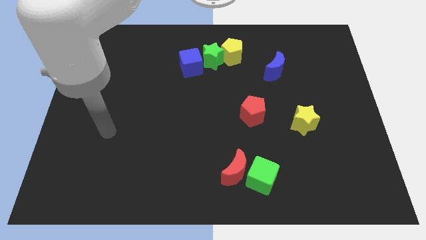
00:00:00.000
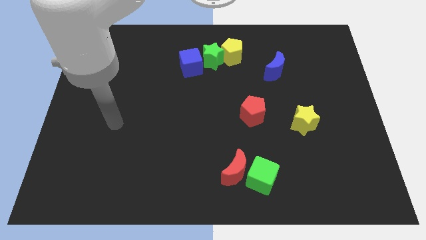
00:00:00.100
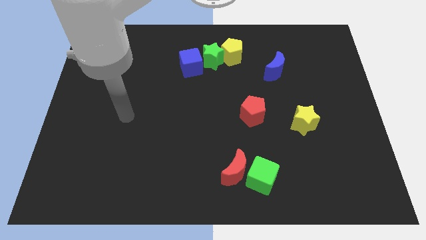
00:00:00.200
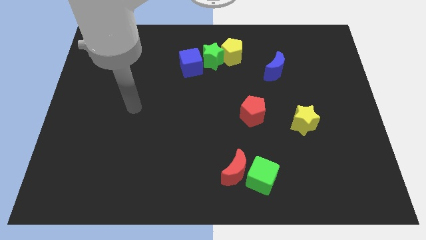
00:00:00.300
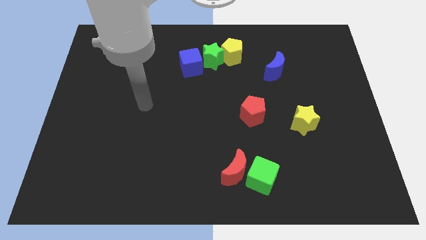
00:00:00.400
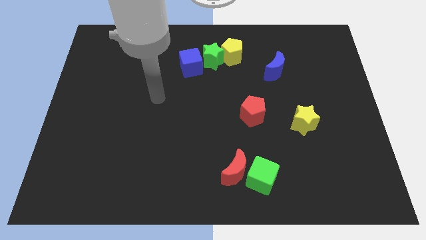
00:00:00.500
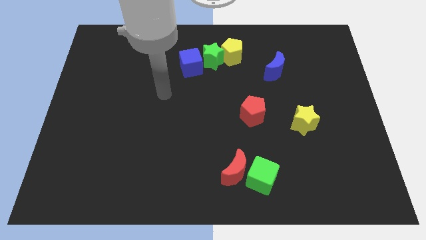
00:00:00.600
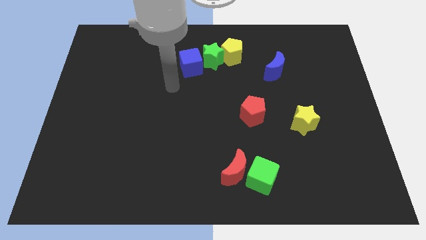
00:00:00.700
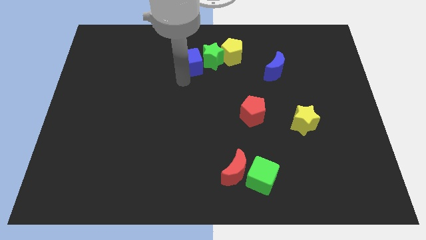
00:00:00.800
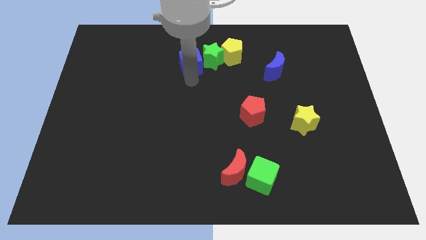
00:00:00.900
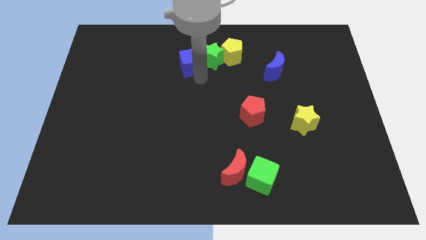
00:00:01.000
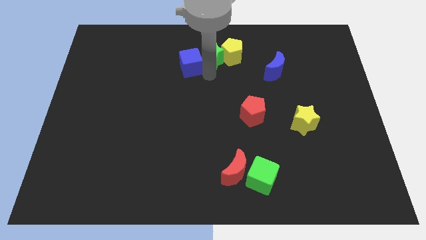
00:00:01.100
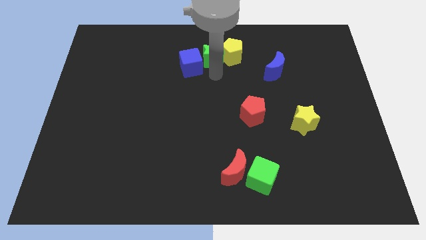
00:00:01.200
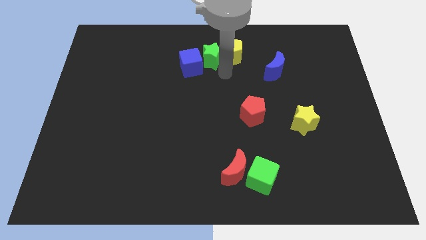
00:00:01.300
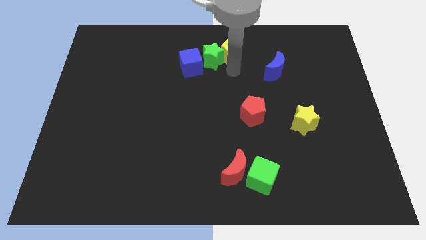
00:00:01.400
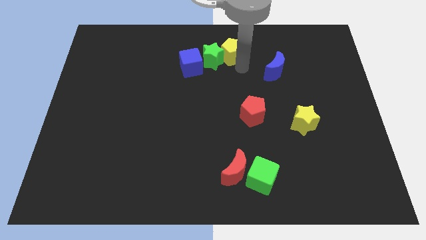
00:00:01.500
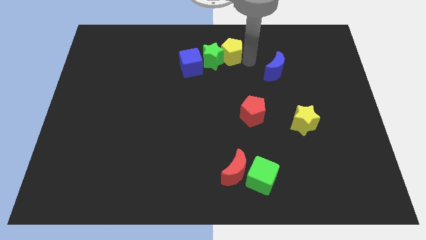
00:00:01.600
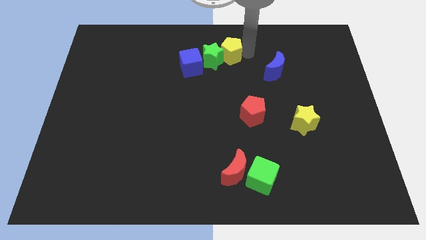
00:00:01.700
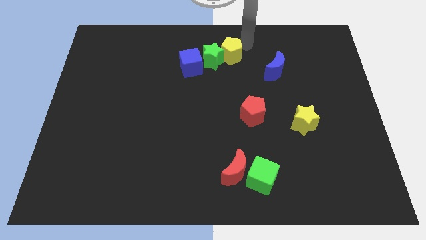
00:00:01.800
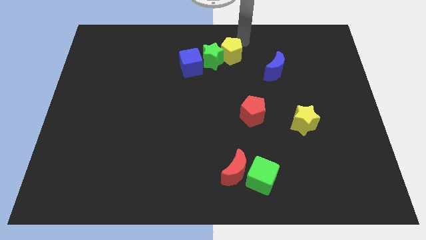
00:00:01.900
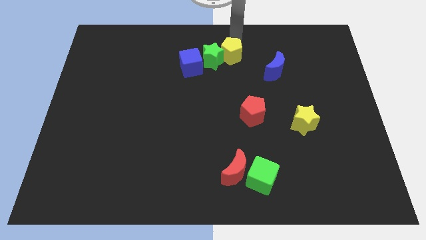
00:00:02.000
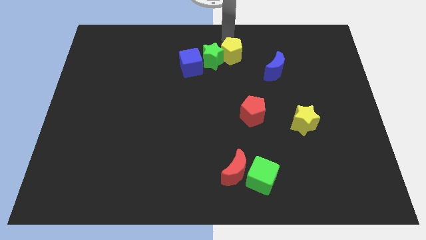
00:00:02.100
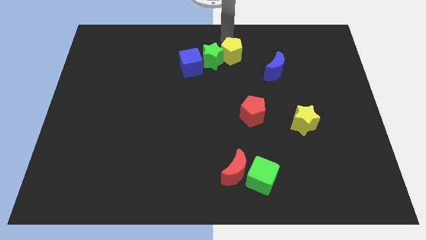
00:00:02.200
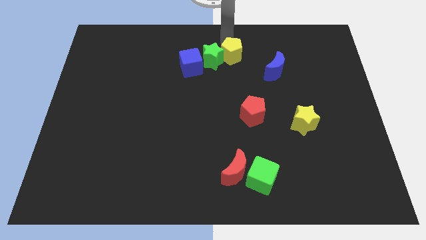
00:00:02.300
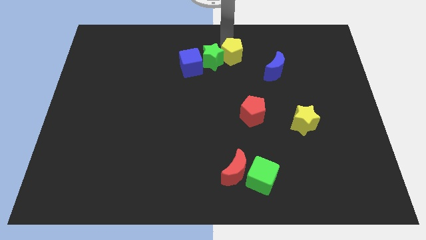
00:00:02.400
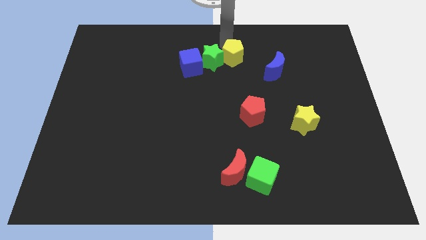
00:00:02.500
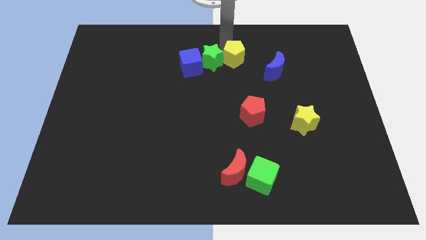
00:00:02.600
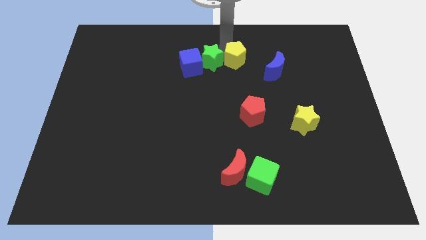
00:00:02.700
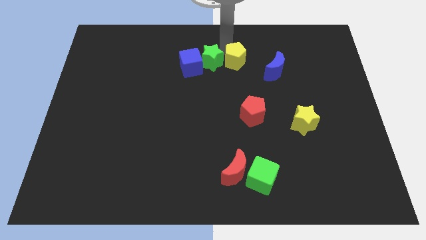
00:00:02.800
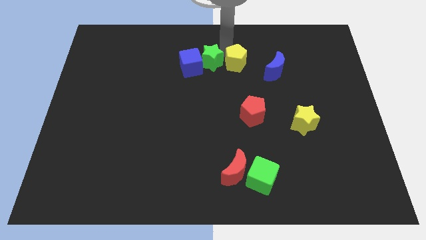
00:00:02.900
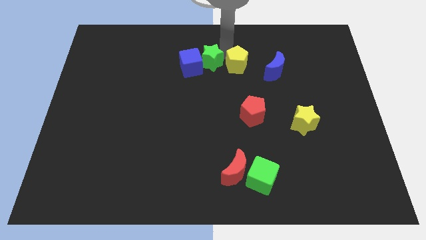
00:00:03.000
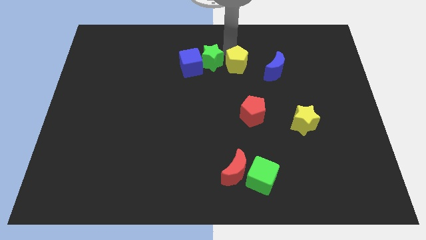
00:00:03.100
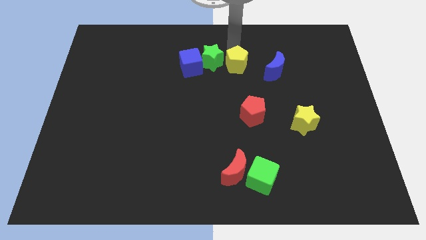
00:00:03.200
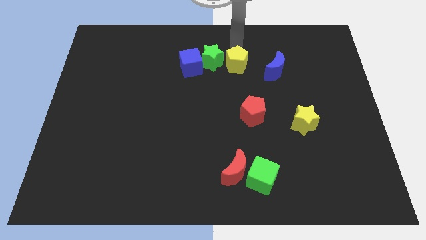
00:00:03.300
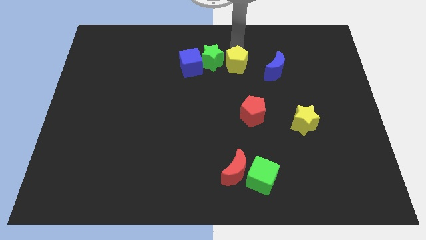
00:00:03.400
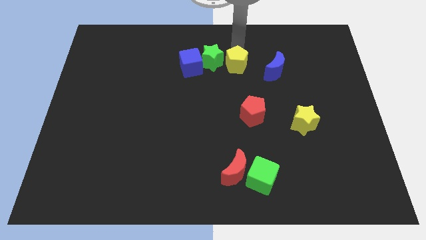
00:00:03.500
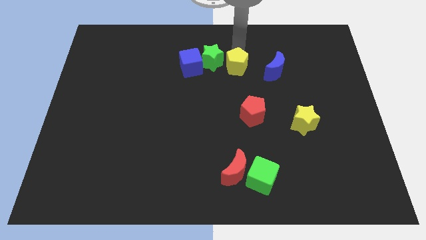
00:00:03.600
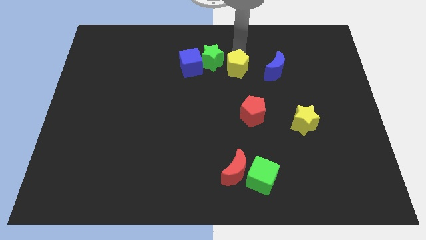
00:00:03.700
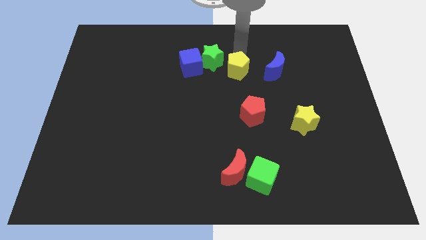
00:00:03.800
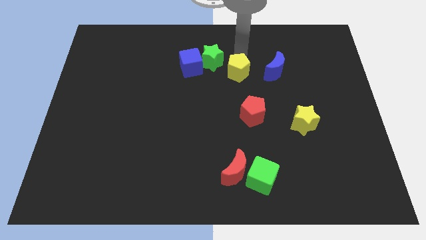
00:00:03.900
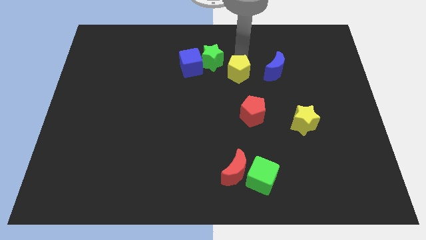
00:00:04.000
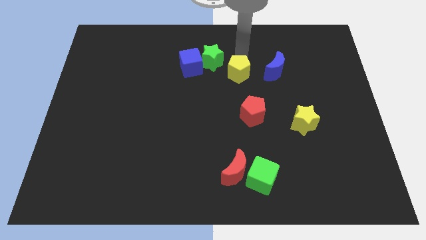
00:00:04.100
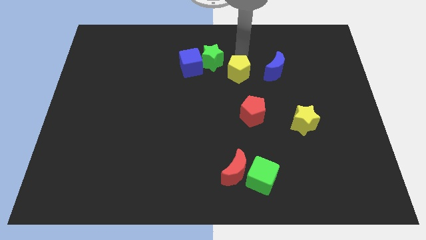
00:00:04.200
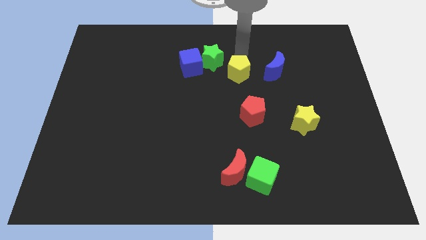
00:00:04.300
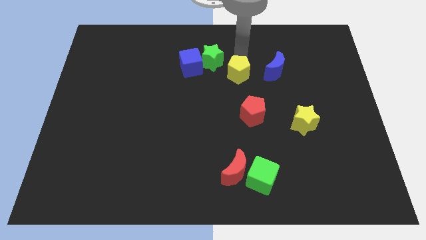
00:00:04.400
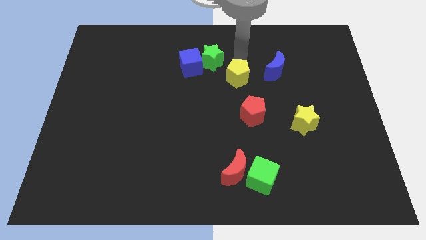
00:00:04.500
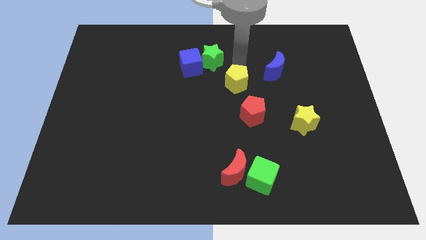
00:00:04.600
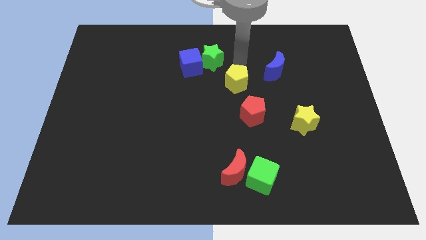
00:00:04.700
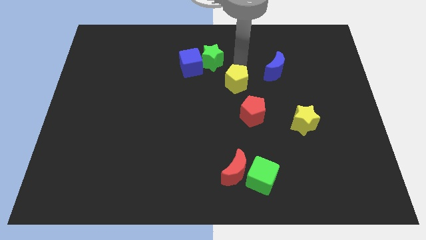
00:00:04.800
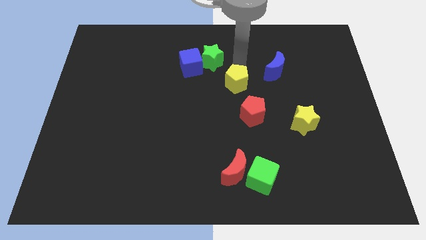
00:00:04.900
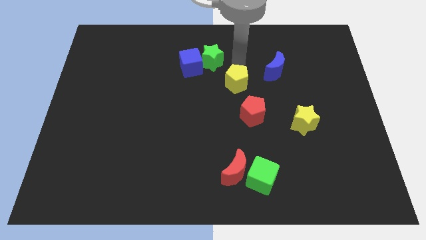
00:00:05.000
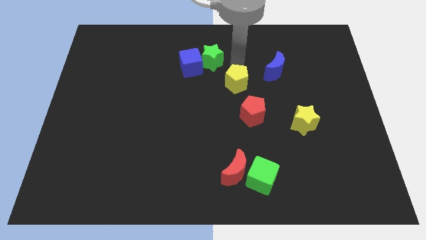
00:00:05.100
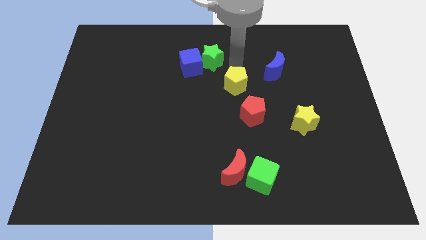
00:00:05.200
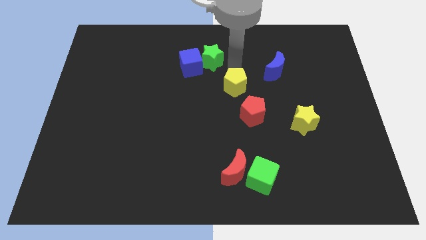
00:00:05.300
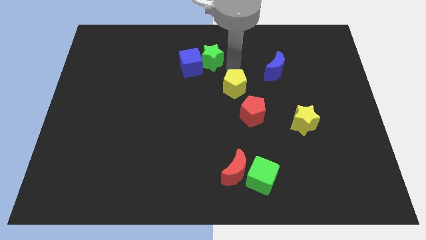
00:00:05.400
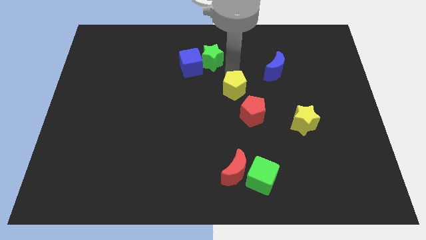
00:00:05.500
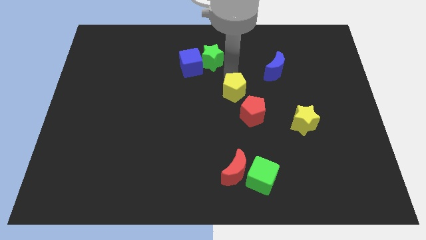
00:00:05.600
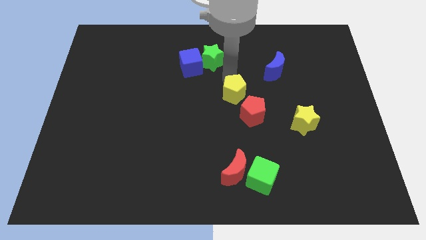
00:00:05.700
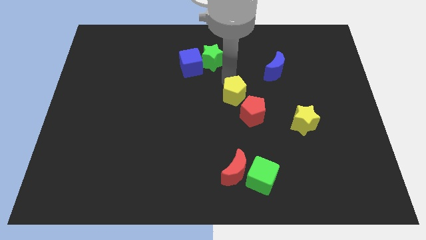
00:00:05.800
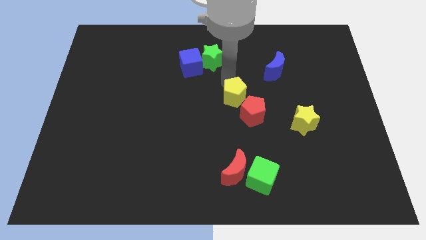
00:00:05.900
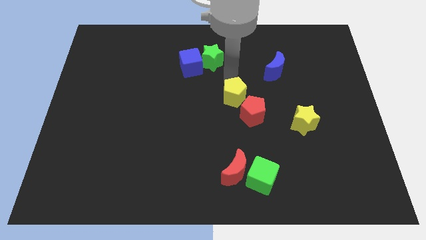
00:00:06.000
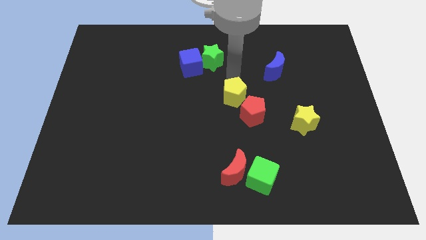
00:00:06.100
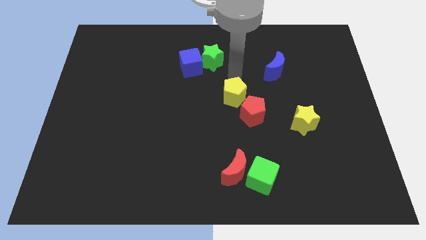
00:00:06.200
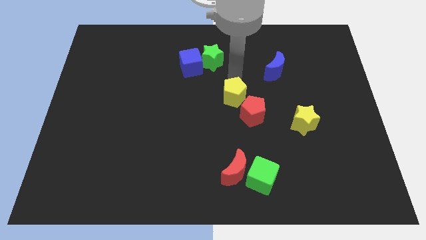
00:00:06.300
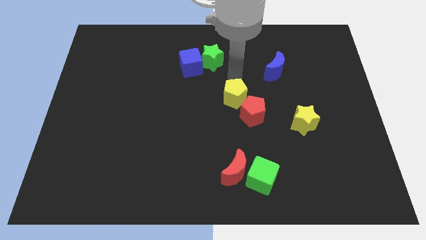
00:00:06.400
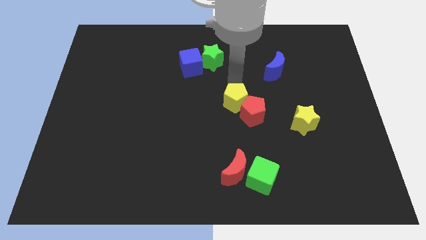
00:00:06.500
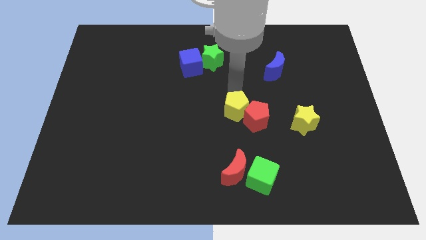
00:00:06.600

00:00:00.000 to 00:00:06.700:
push the yellow pentagon to the top side of the red moon
